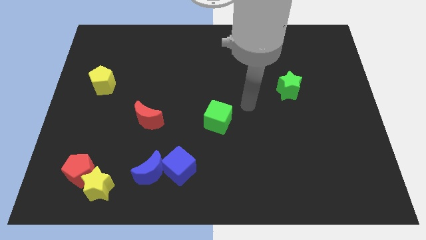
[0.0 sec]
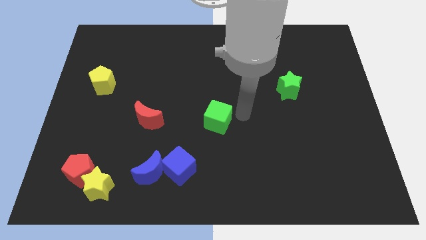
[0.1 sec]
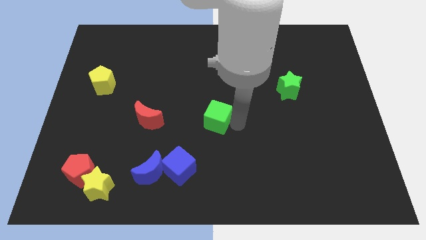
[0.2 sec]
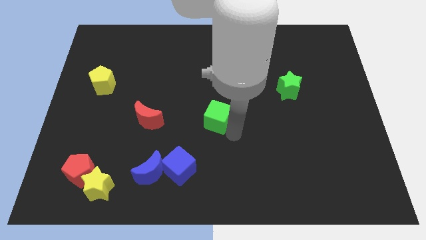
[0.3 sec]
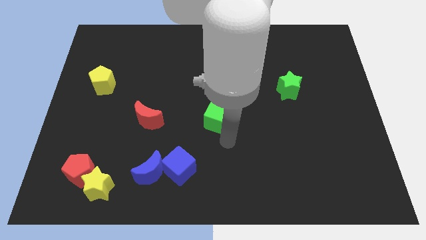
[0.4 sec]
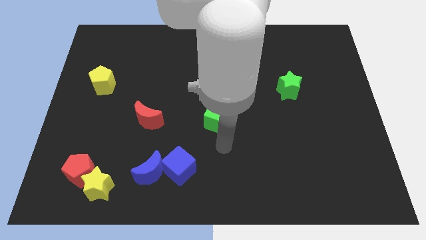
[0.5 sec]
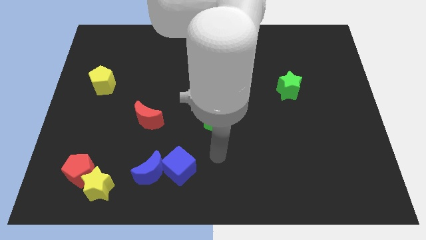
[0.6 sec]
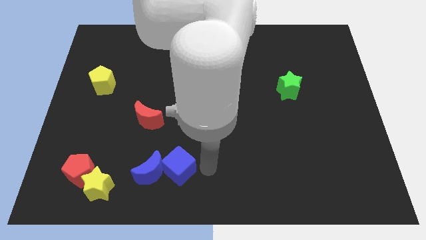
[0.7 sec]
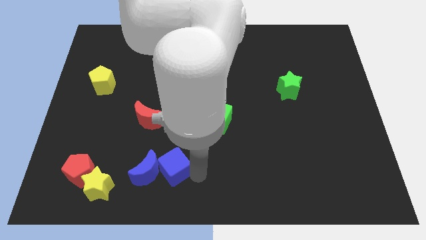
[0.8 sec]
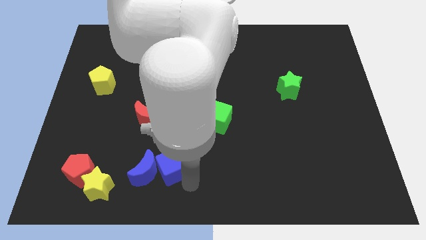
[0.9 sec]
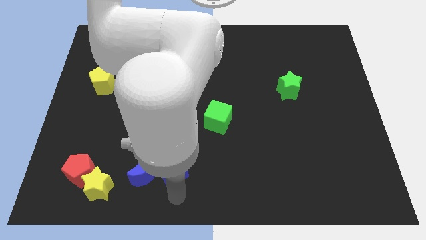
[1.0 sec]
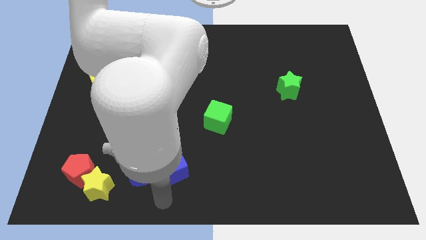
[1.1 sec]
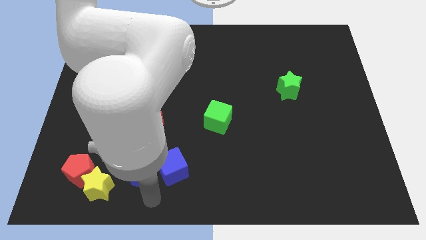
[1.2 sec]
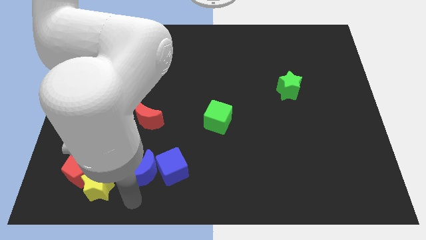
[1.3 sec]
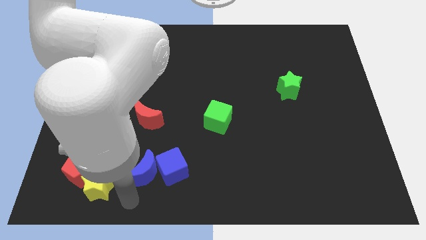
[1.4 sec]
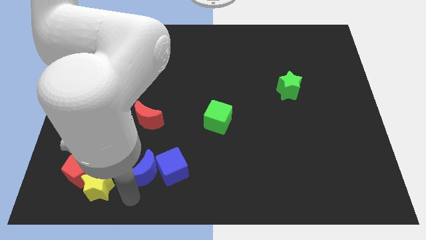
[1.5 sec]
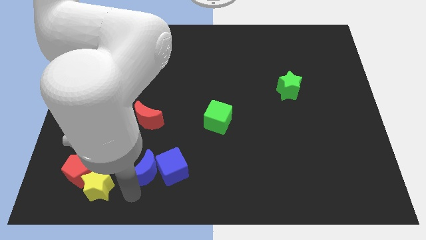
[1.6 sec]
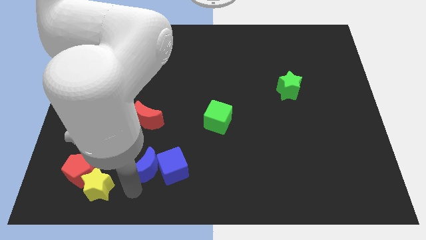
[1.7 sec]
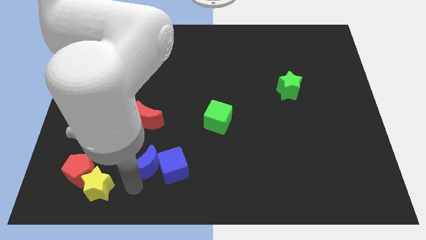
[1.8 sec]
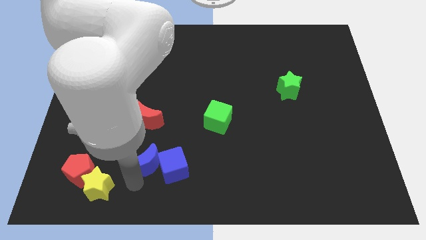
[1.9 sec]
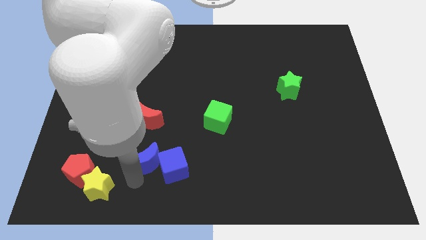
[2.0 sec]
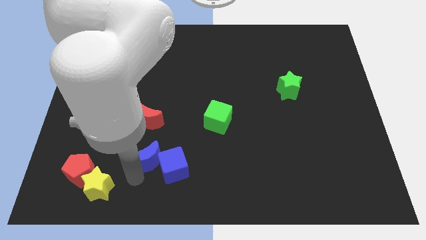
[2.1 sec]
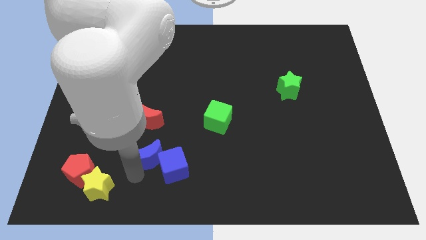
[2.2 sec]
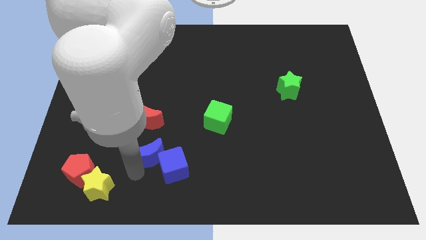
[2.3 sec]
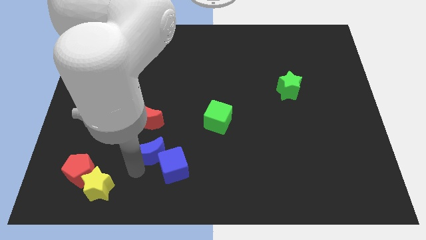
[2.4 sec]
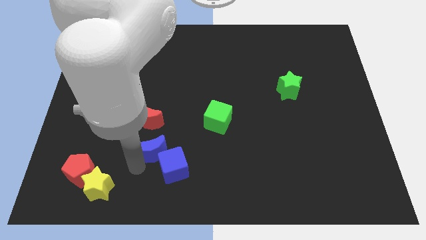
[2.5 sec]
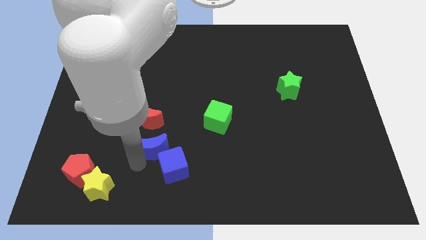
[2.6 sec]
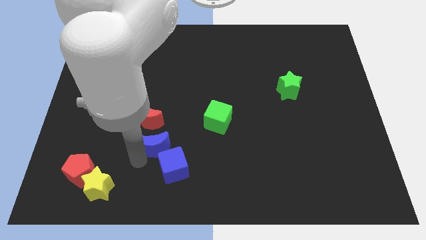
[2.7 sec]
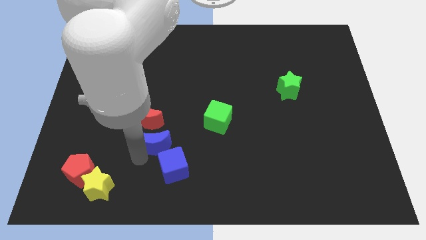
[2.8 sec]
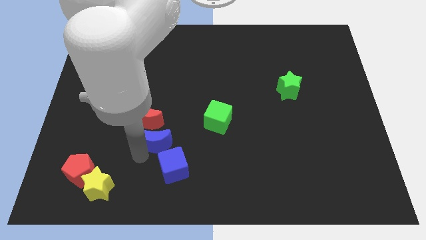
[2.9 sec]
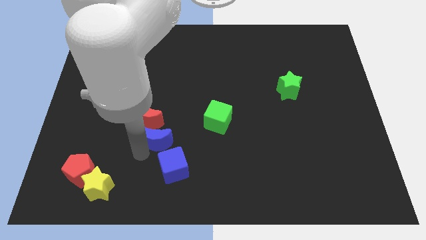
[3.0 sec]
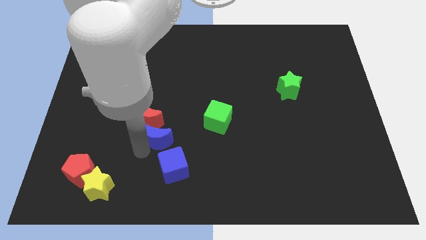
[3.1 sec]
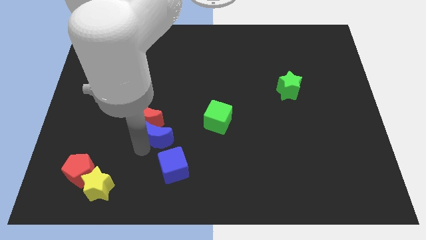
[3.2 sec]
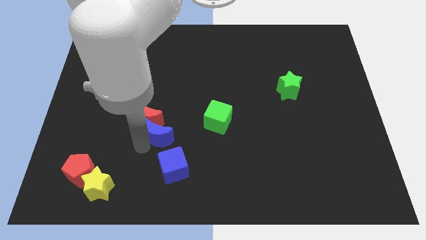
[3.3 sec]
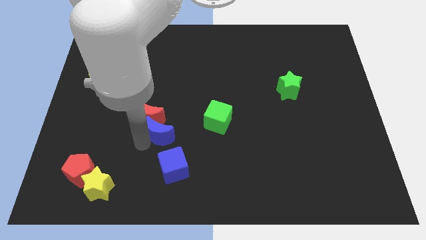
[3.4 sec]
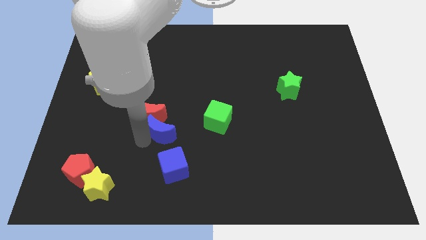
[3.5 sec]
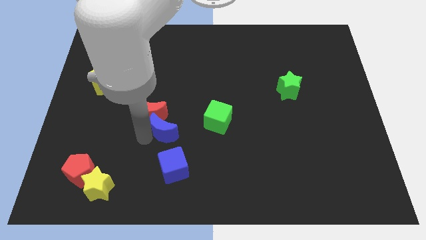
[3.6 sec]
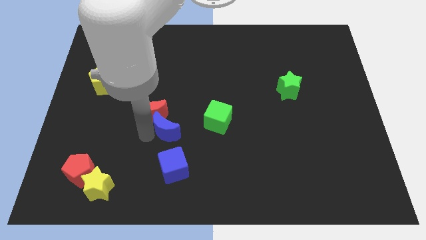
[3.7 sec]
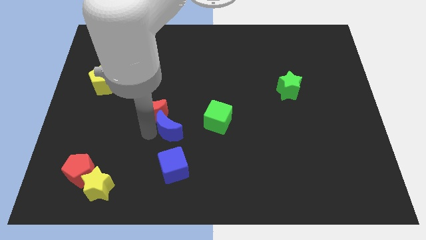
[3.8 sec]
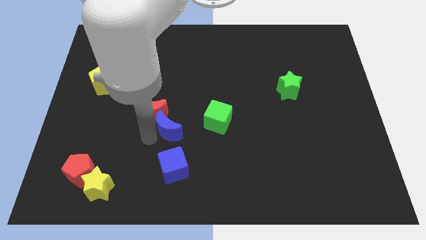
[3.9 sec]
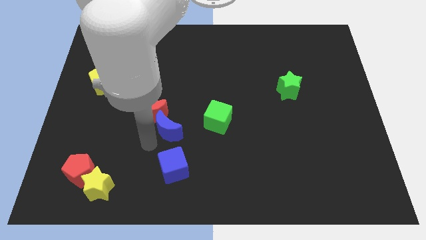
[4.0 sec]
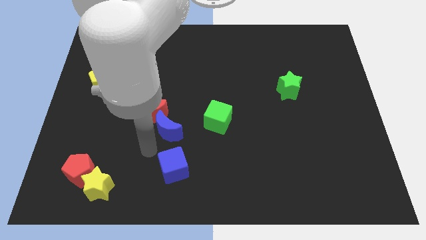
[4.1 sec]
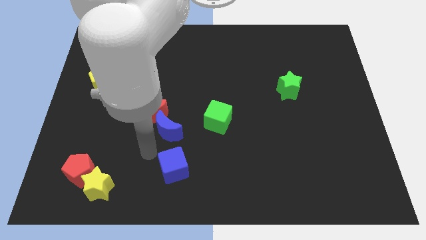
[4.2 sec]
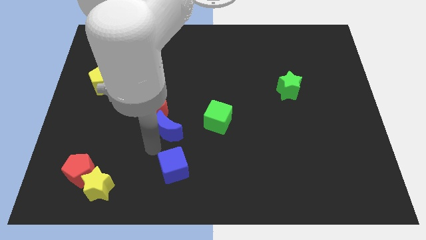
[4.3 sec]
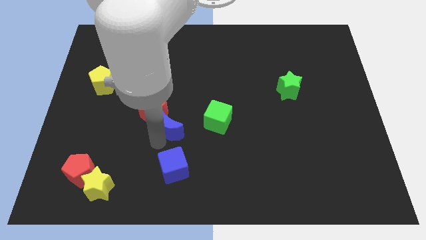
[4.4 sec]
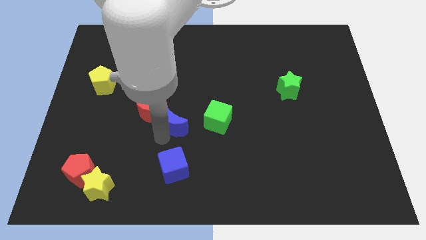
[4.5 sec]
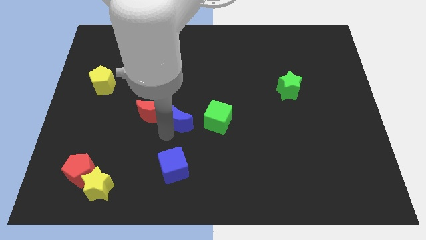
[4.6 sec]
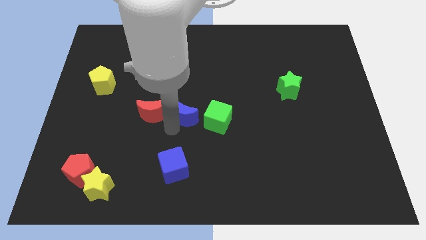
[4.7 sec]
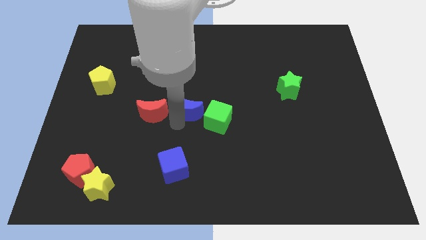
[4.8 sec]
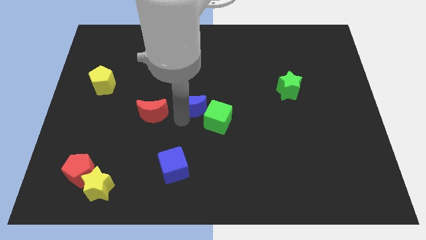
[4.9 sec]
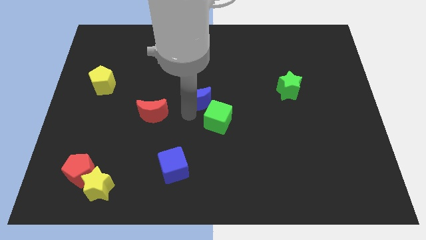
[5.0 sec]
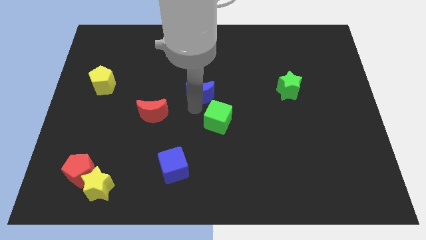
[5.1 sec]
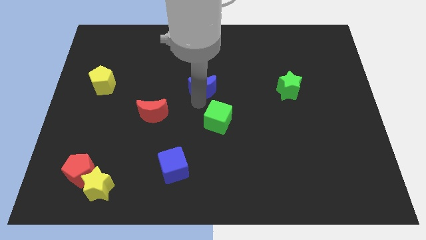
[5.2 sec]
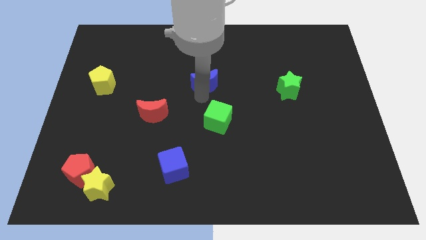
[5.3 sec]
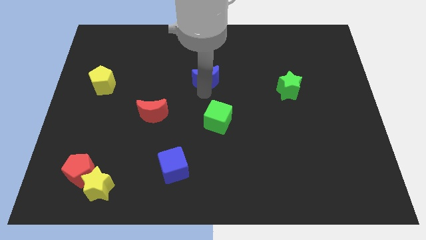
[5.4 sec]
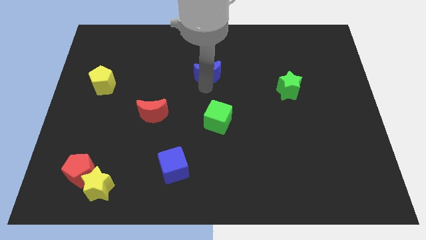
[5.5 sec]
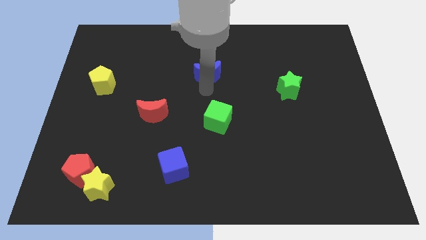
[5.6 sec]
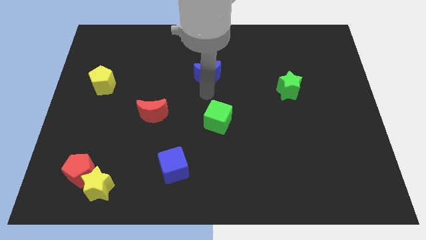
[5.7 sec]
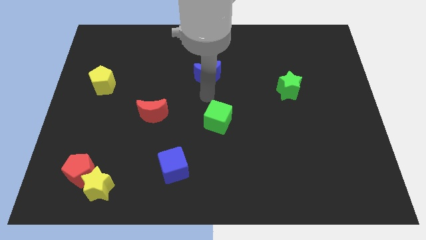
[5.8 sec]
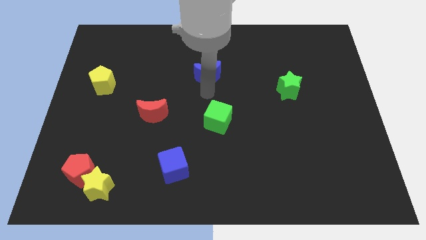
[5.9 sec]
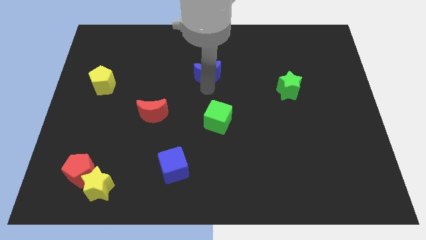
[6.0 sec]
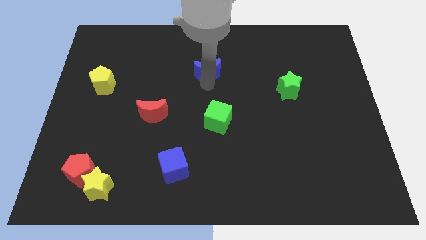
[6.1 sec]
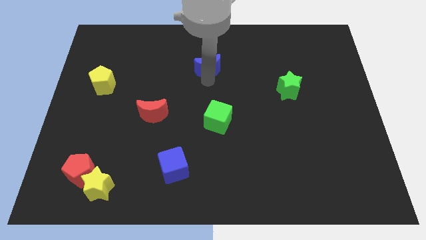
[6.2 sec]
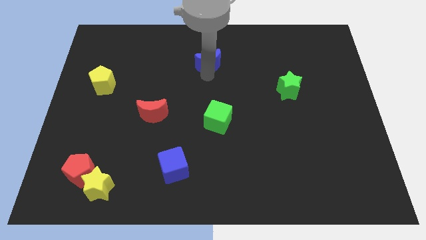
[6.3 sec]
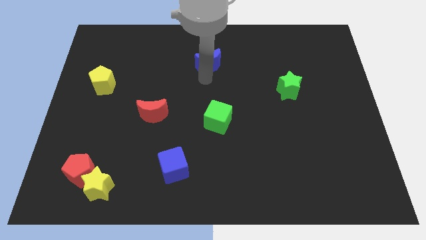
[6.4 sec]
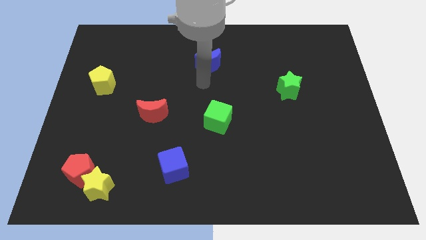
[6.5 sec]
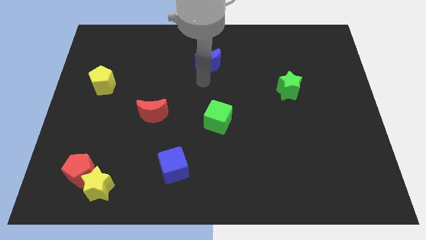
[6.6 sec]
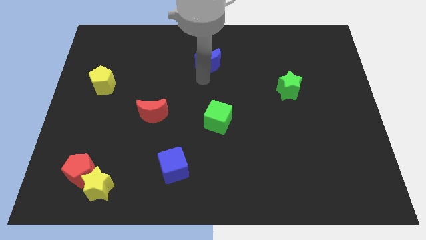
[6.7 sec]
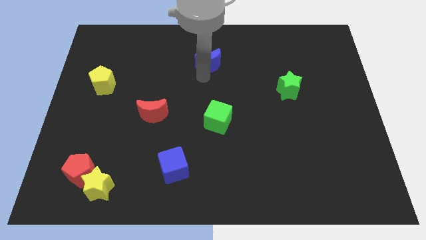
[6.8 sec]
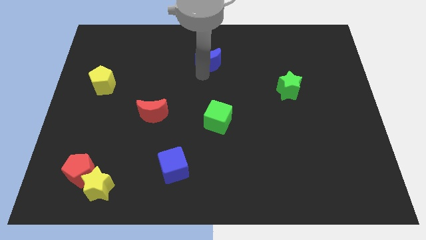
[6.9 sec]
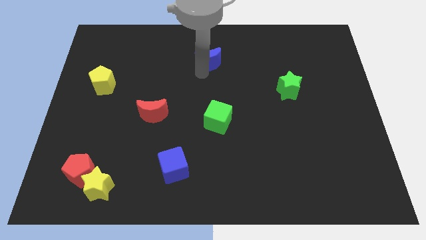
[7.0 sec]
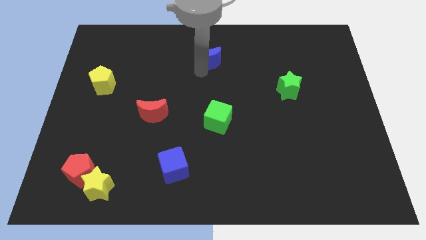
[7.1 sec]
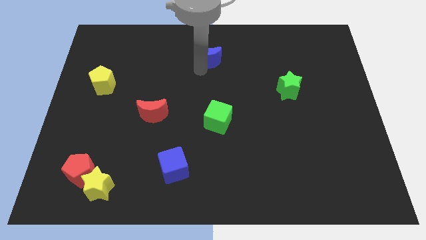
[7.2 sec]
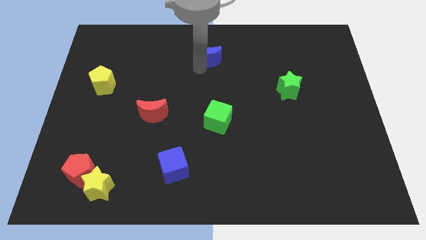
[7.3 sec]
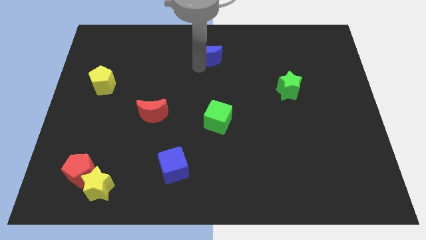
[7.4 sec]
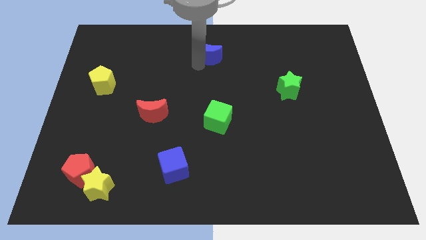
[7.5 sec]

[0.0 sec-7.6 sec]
slide the blue moon to the top
